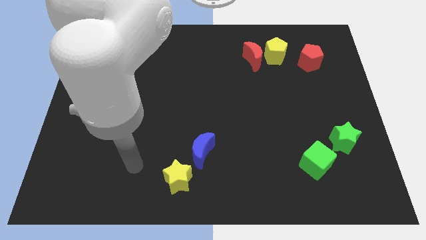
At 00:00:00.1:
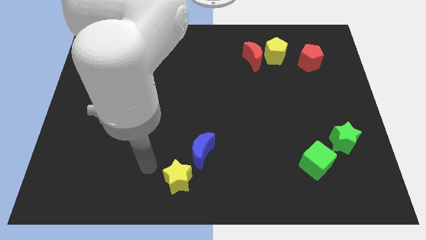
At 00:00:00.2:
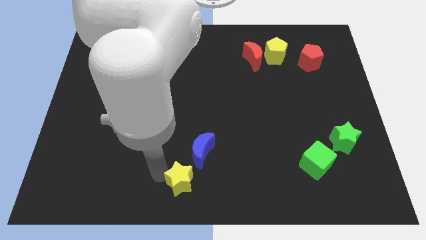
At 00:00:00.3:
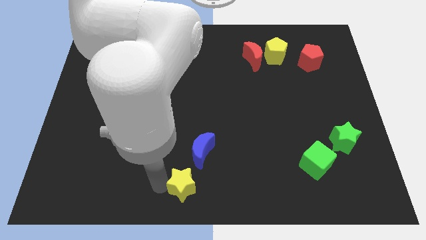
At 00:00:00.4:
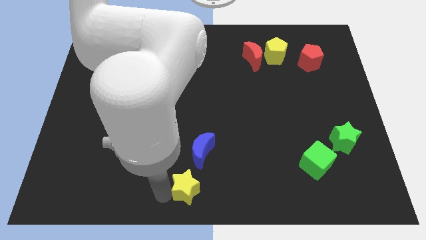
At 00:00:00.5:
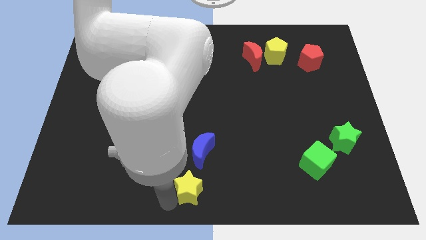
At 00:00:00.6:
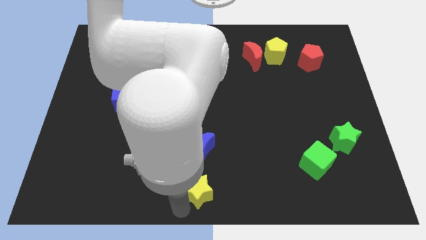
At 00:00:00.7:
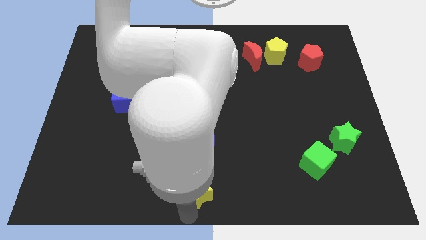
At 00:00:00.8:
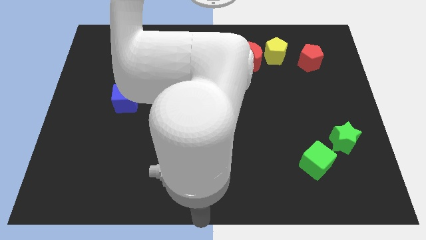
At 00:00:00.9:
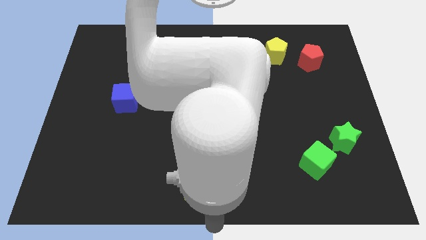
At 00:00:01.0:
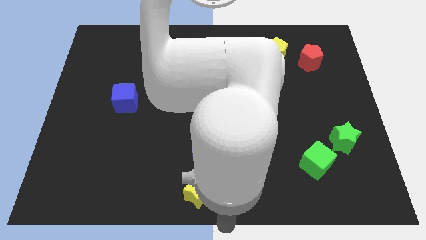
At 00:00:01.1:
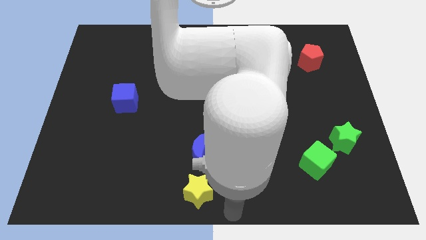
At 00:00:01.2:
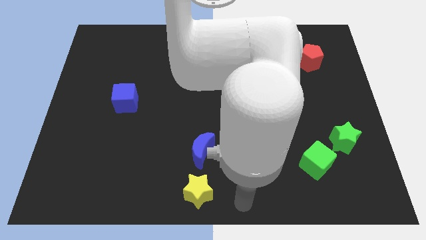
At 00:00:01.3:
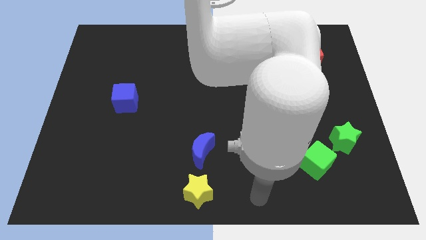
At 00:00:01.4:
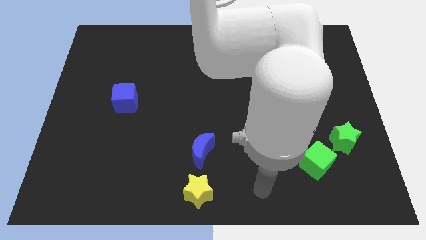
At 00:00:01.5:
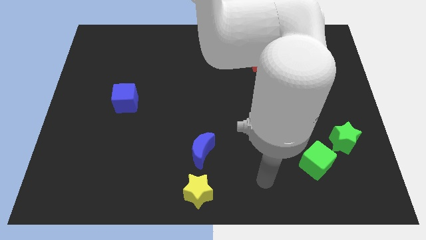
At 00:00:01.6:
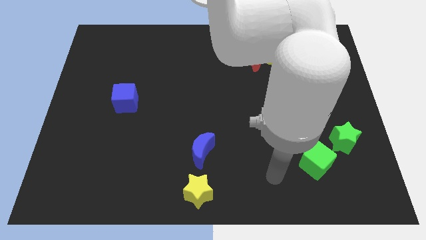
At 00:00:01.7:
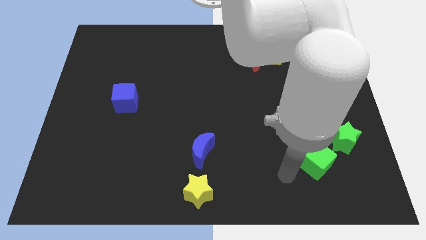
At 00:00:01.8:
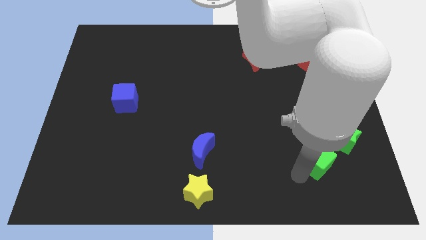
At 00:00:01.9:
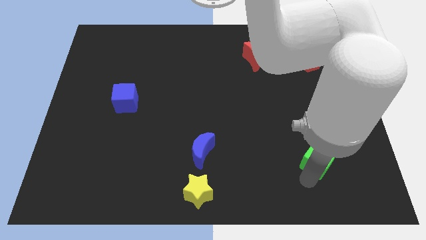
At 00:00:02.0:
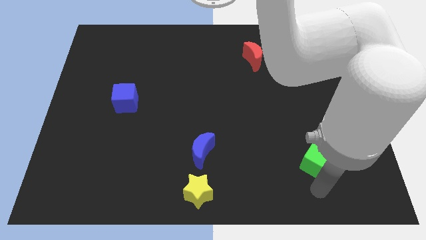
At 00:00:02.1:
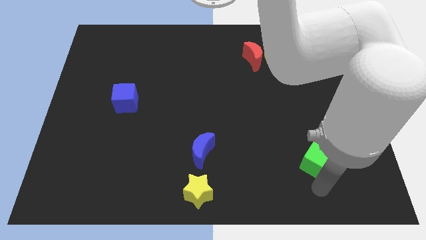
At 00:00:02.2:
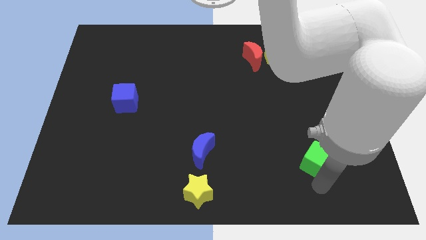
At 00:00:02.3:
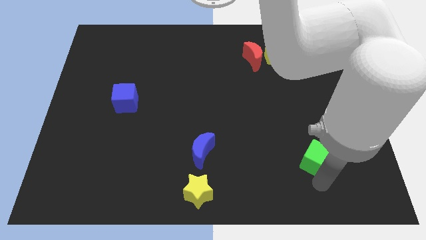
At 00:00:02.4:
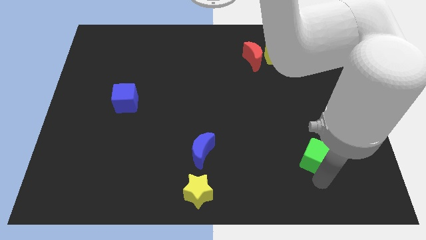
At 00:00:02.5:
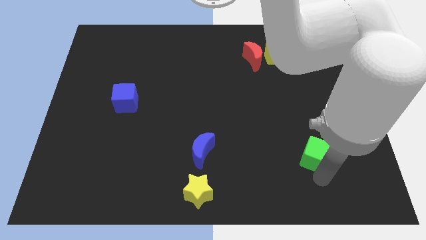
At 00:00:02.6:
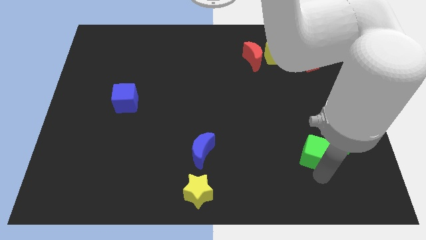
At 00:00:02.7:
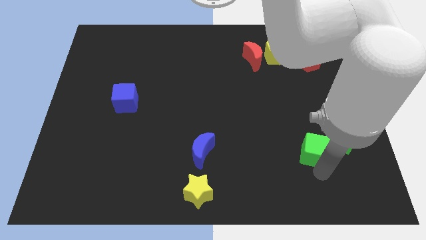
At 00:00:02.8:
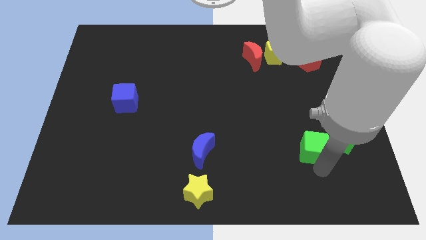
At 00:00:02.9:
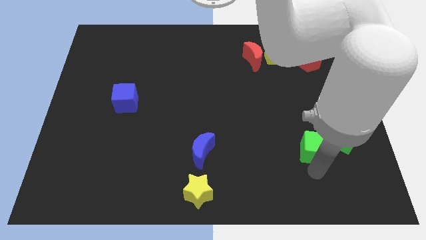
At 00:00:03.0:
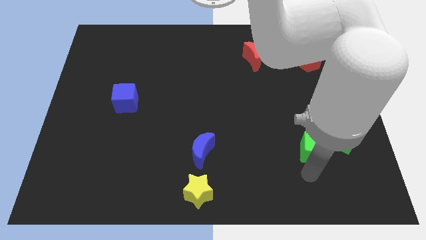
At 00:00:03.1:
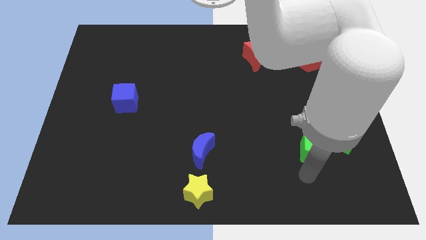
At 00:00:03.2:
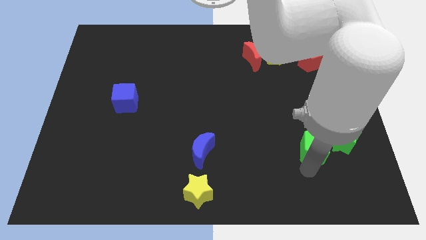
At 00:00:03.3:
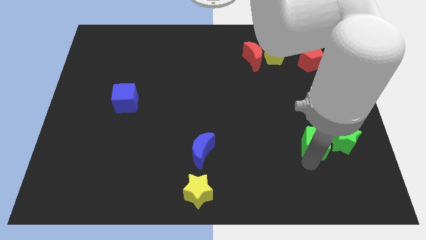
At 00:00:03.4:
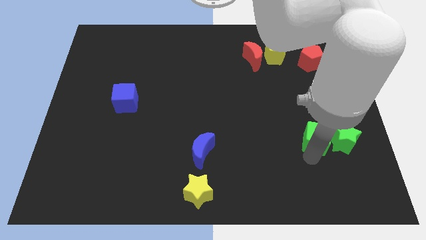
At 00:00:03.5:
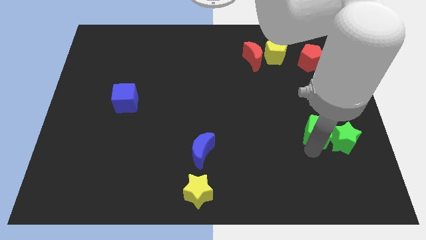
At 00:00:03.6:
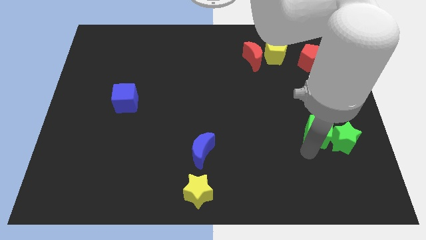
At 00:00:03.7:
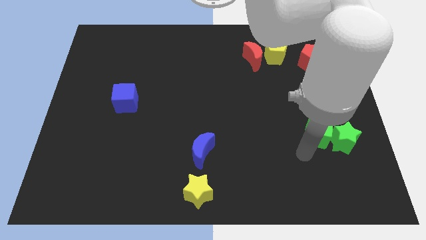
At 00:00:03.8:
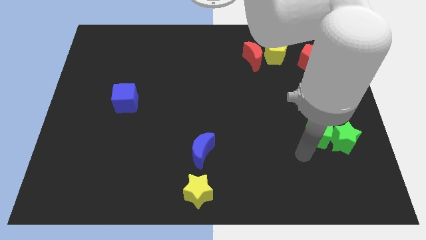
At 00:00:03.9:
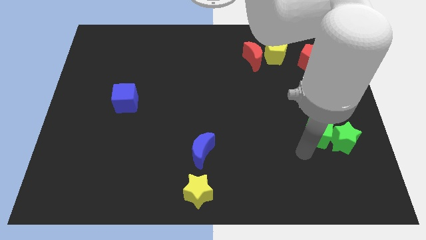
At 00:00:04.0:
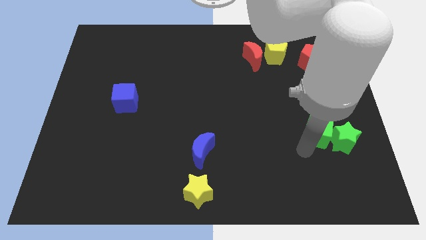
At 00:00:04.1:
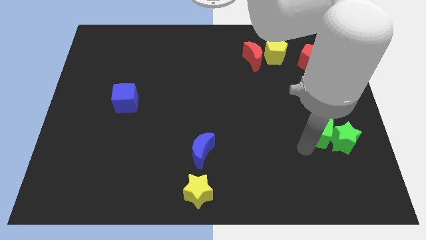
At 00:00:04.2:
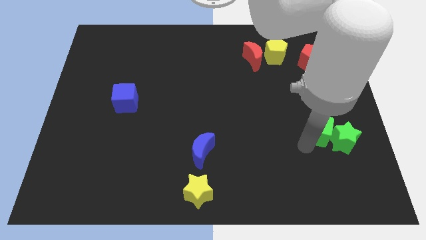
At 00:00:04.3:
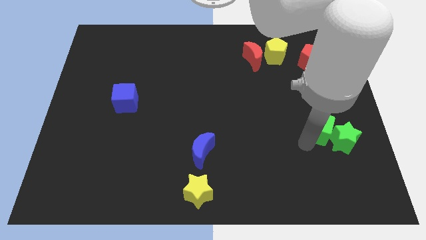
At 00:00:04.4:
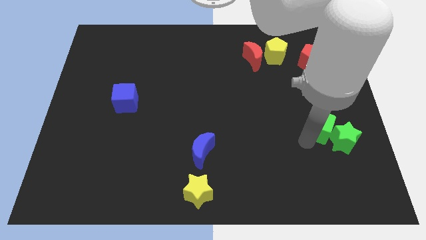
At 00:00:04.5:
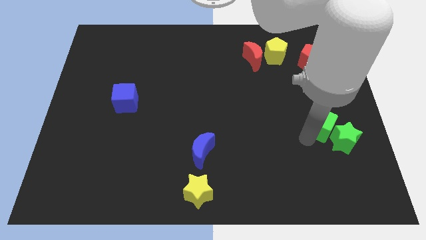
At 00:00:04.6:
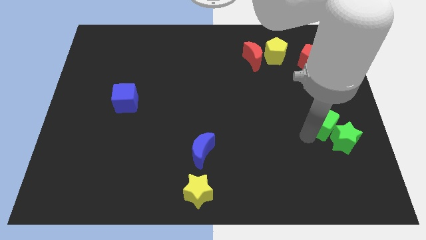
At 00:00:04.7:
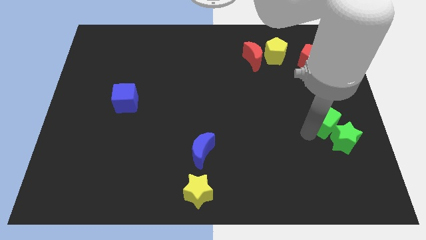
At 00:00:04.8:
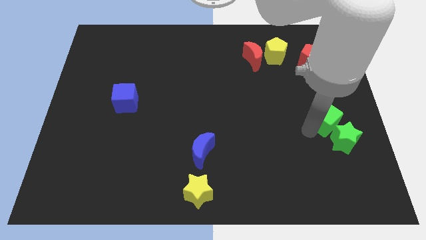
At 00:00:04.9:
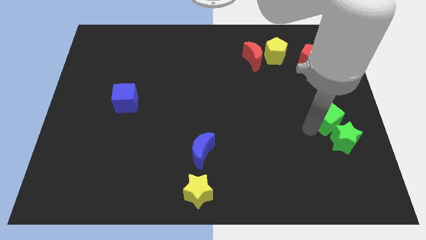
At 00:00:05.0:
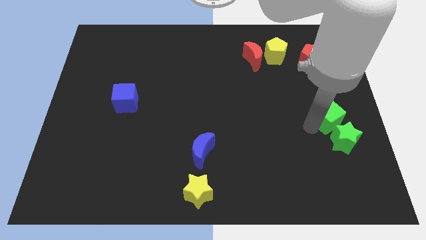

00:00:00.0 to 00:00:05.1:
slide the green cube to the right side
